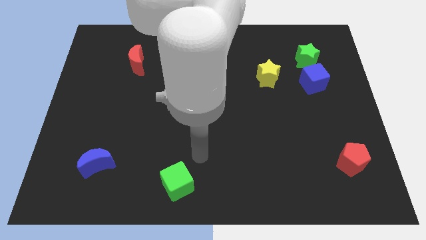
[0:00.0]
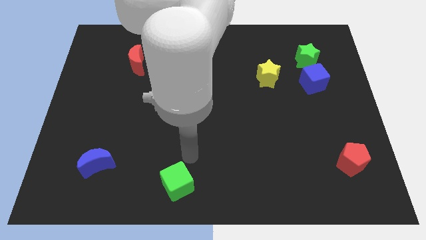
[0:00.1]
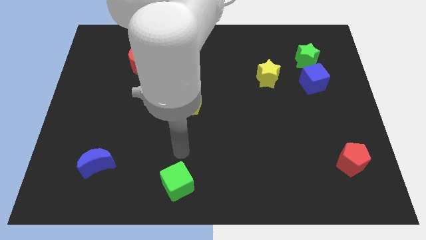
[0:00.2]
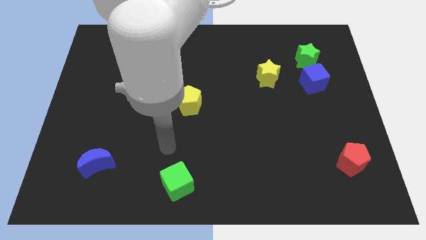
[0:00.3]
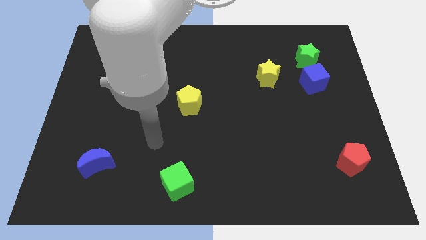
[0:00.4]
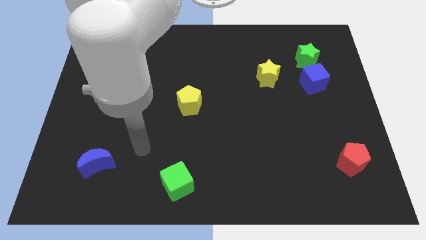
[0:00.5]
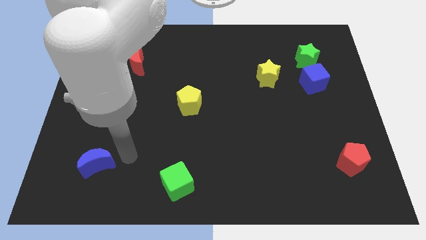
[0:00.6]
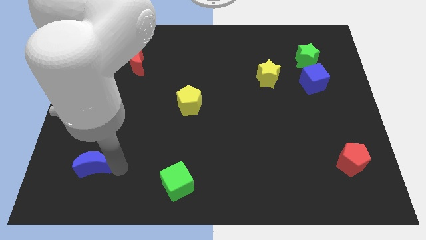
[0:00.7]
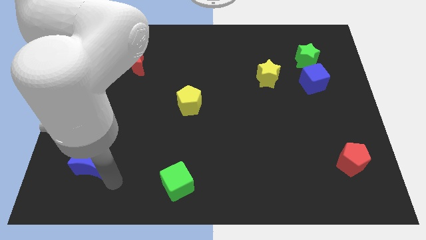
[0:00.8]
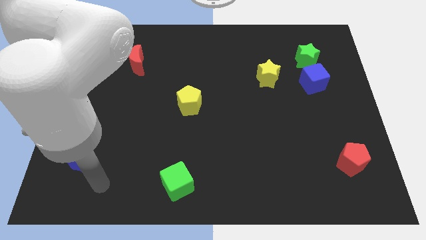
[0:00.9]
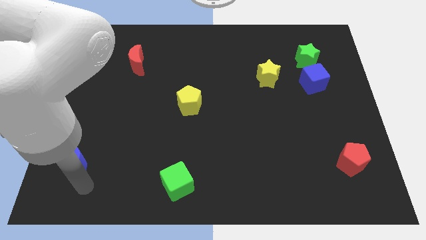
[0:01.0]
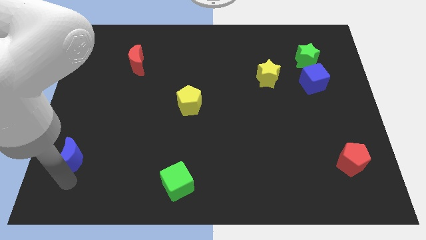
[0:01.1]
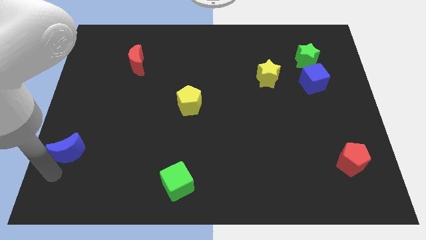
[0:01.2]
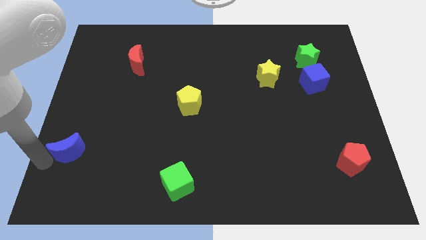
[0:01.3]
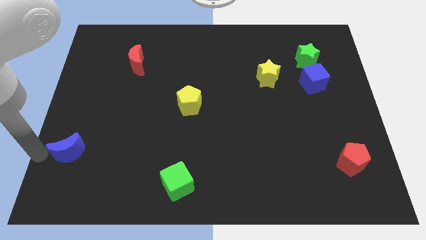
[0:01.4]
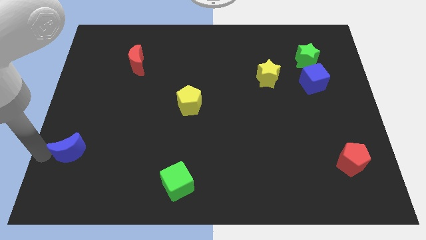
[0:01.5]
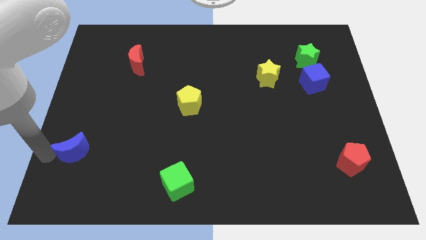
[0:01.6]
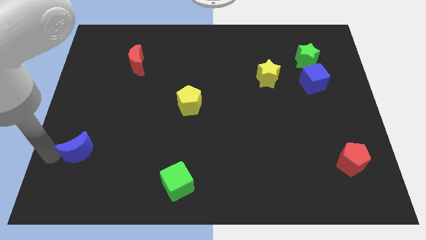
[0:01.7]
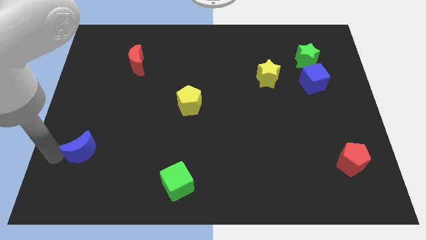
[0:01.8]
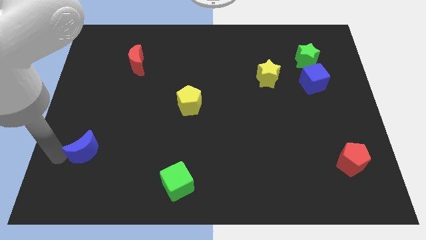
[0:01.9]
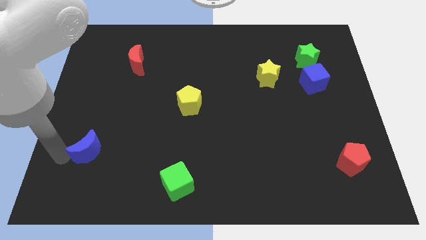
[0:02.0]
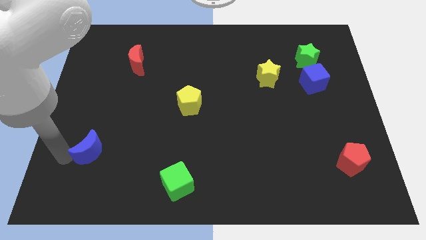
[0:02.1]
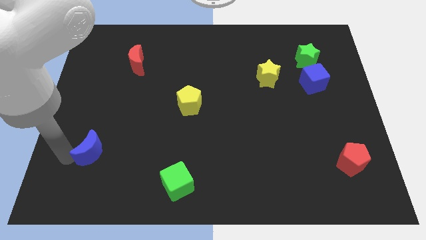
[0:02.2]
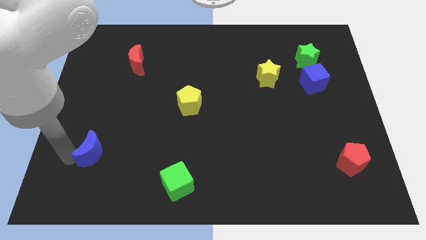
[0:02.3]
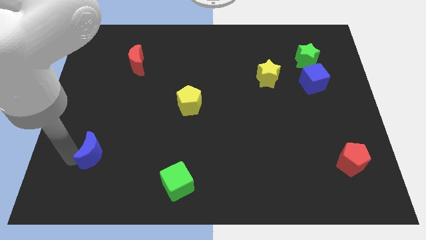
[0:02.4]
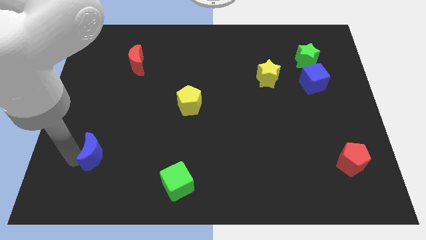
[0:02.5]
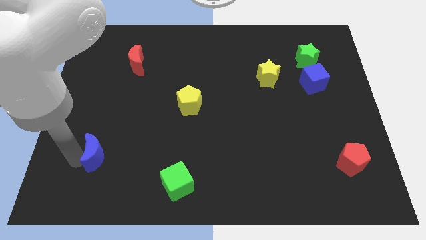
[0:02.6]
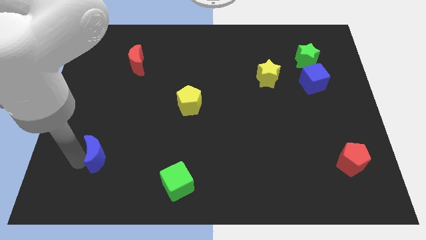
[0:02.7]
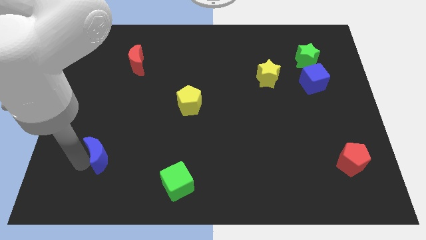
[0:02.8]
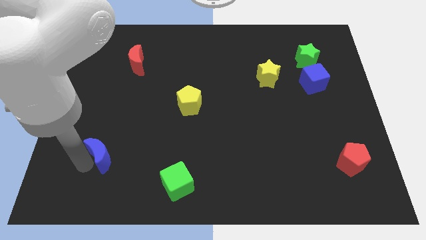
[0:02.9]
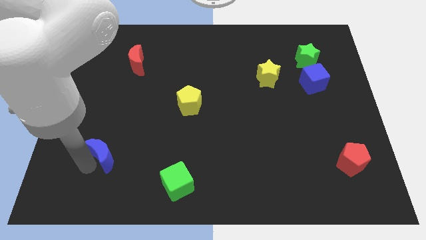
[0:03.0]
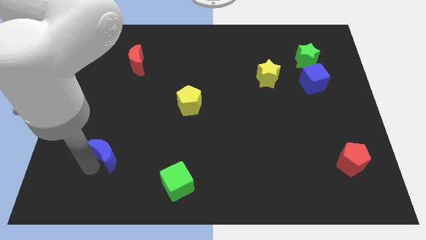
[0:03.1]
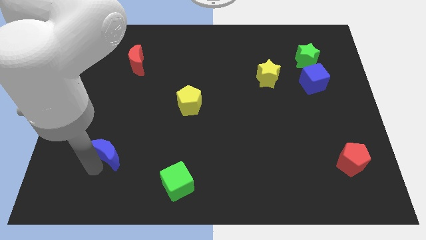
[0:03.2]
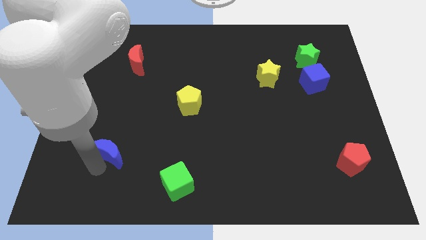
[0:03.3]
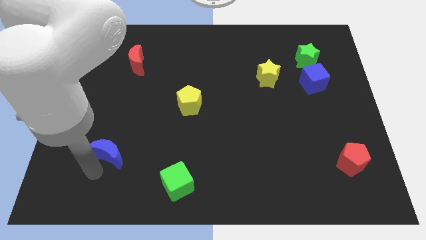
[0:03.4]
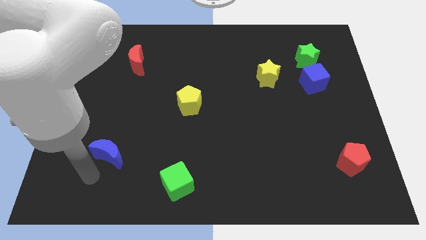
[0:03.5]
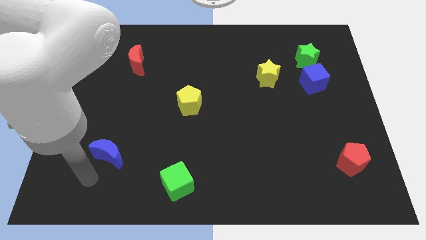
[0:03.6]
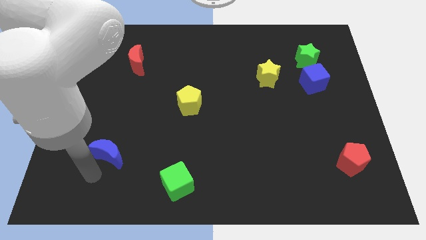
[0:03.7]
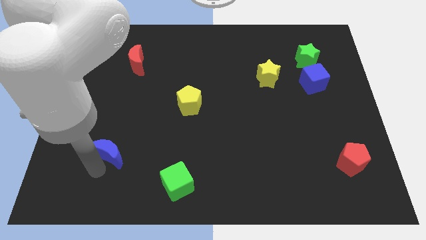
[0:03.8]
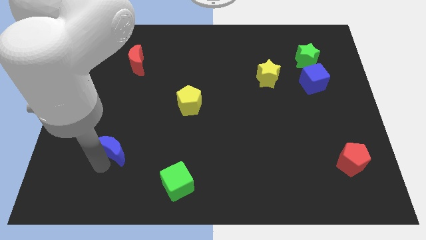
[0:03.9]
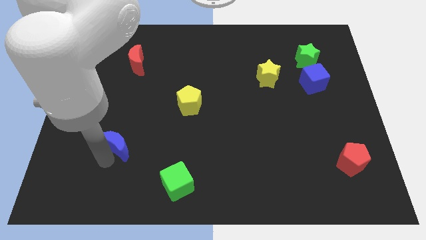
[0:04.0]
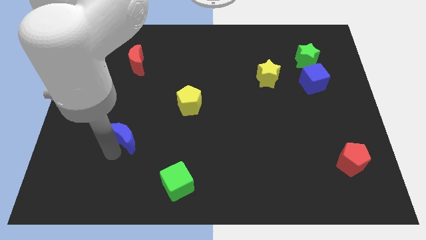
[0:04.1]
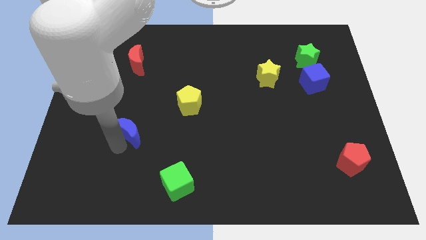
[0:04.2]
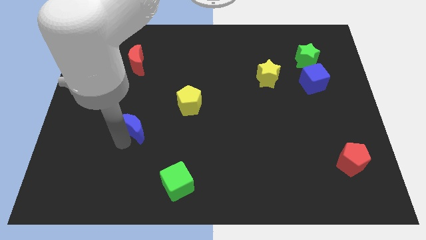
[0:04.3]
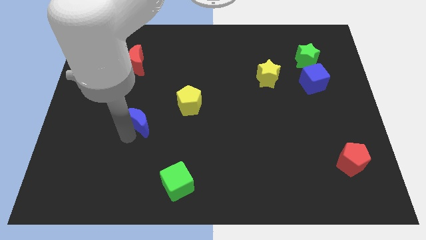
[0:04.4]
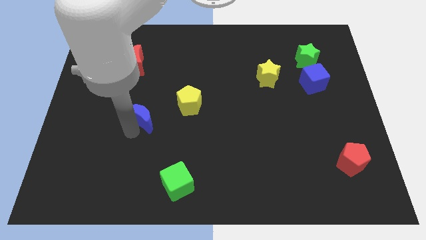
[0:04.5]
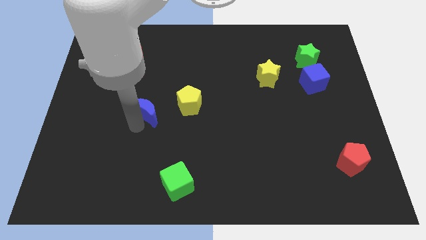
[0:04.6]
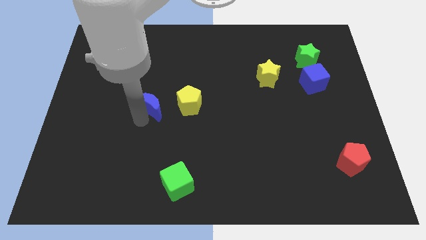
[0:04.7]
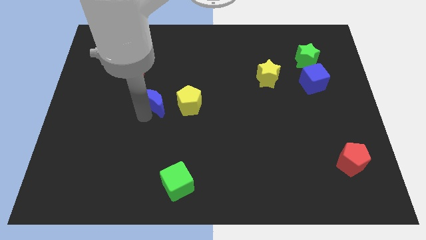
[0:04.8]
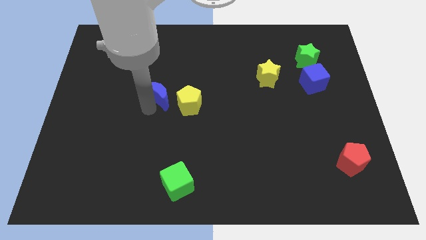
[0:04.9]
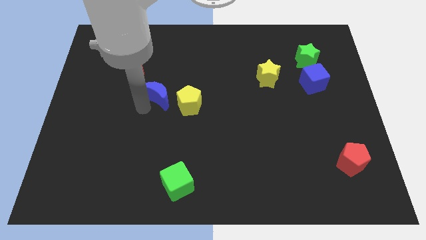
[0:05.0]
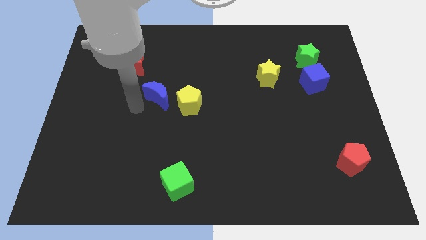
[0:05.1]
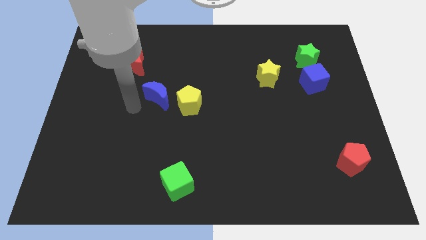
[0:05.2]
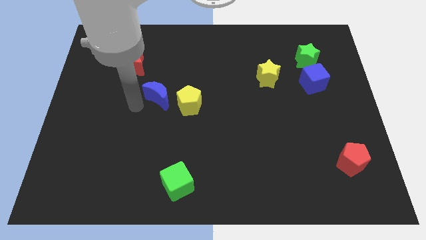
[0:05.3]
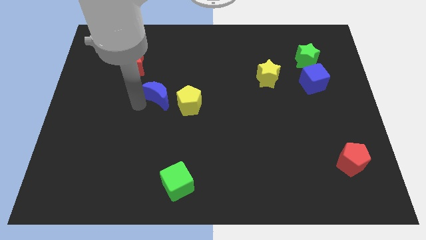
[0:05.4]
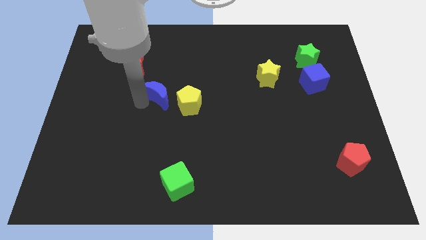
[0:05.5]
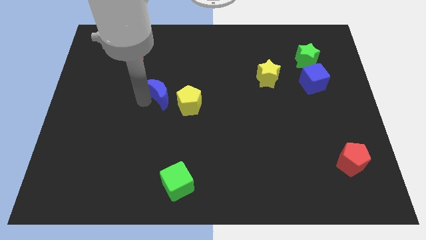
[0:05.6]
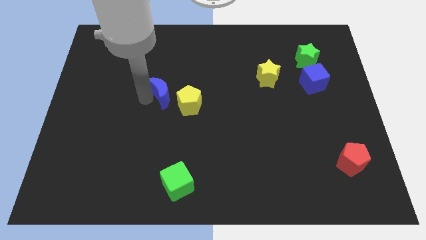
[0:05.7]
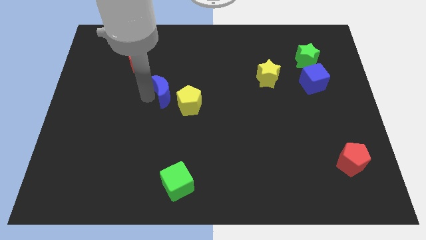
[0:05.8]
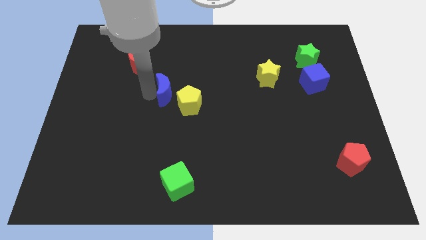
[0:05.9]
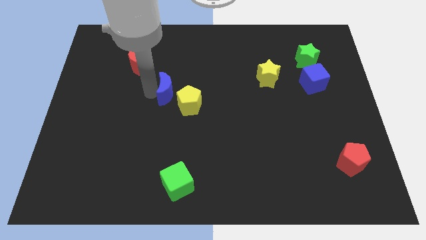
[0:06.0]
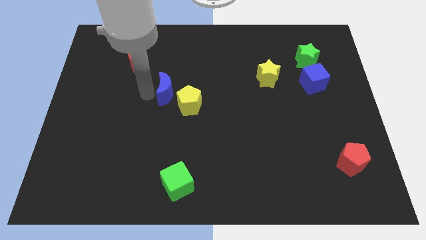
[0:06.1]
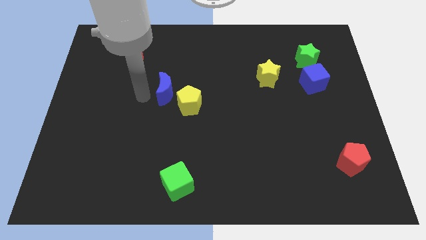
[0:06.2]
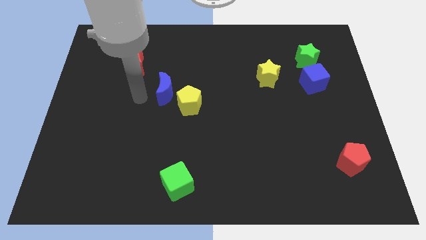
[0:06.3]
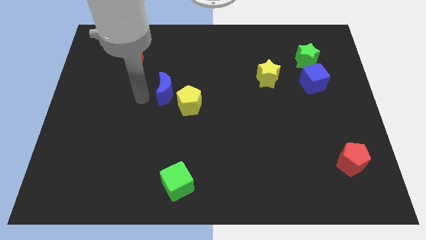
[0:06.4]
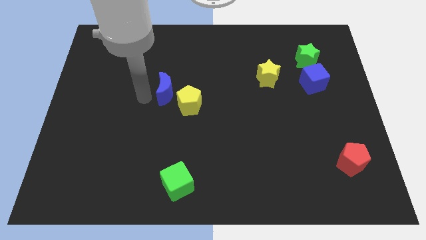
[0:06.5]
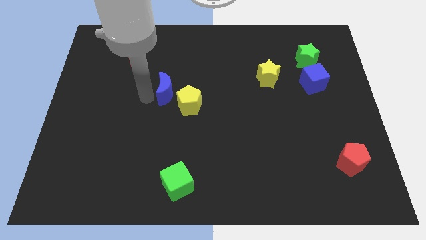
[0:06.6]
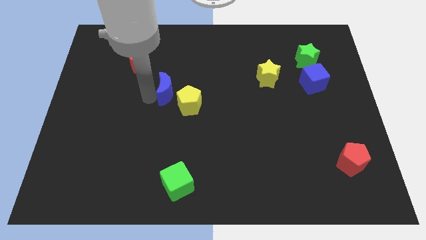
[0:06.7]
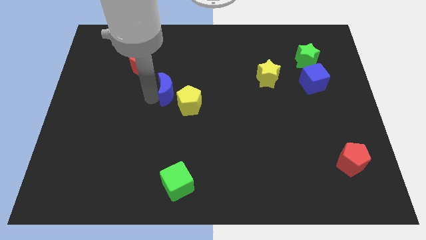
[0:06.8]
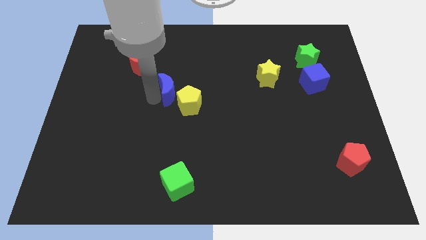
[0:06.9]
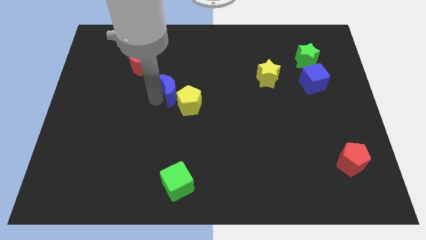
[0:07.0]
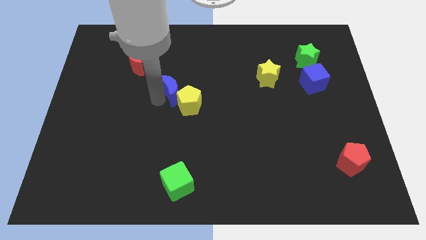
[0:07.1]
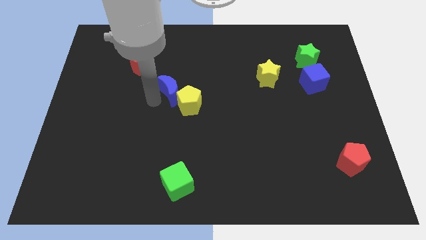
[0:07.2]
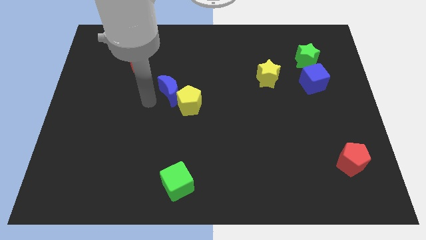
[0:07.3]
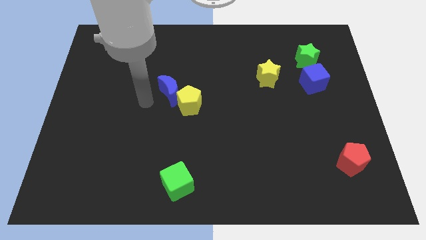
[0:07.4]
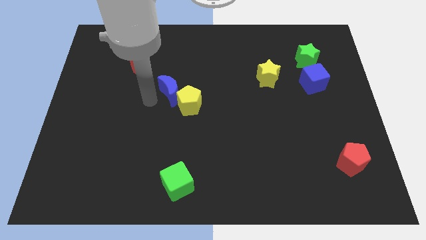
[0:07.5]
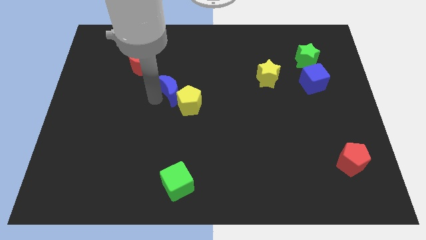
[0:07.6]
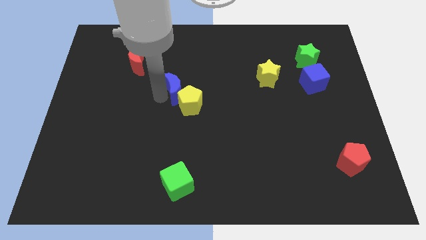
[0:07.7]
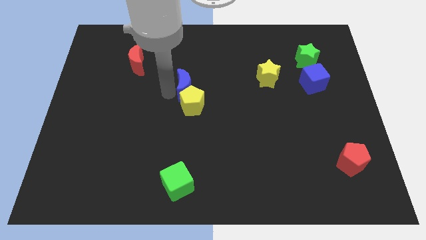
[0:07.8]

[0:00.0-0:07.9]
push the blue moon diagonally up and to the right of the yellow pentagon
